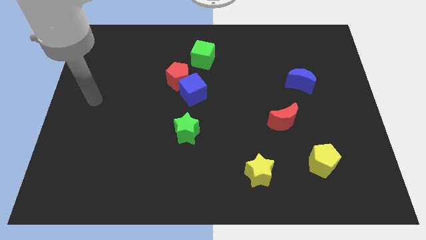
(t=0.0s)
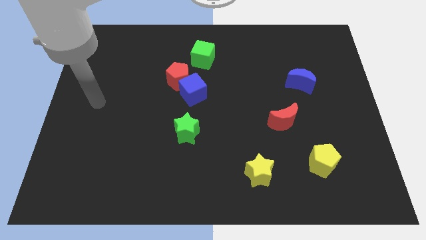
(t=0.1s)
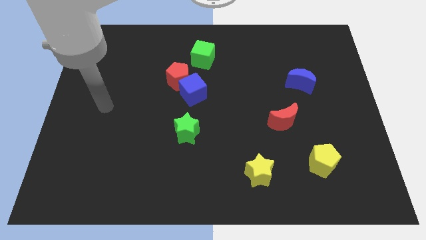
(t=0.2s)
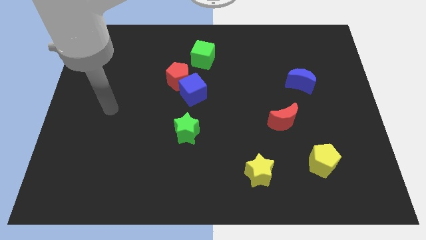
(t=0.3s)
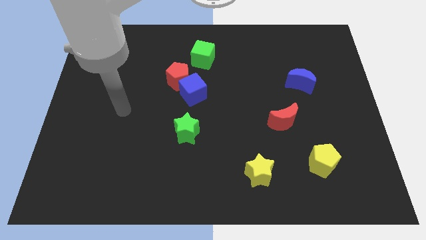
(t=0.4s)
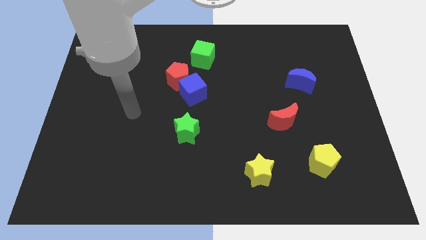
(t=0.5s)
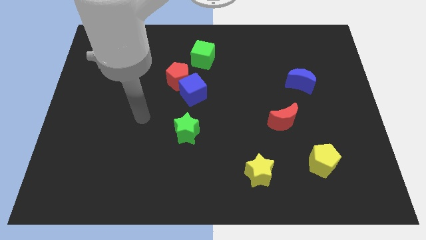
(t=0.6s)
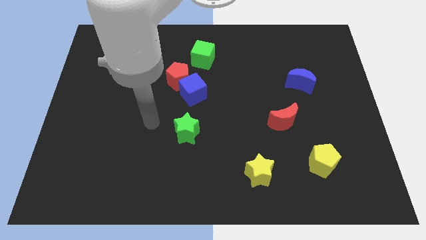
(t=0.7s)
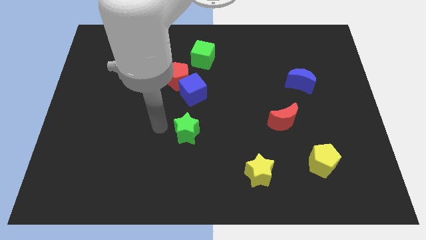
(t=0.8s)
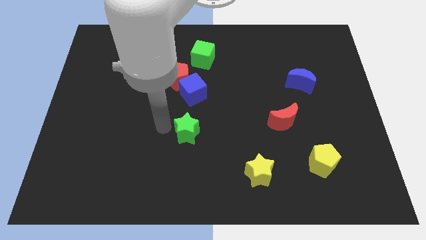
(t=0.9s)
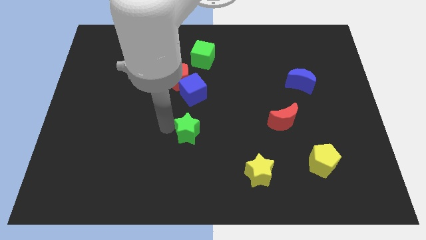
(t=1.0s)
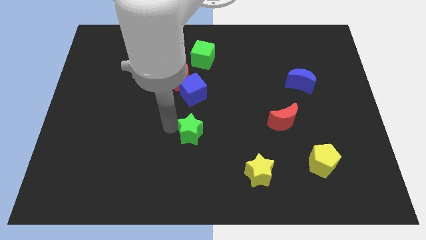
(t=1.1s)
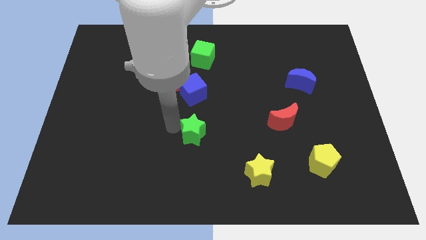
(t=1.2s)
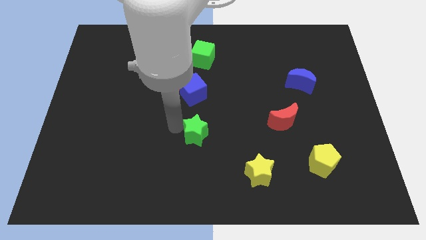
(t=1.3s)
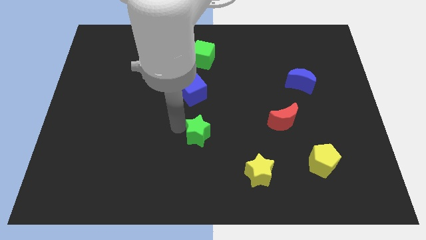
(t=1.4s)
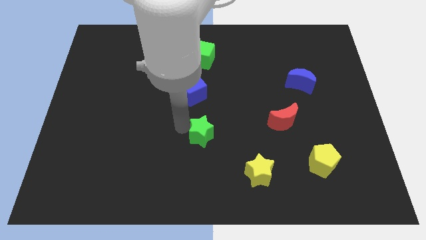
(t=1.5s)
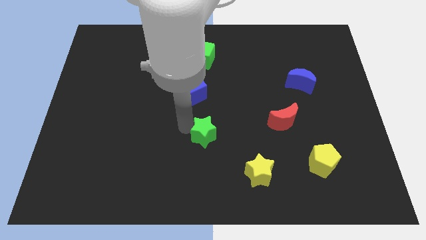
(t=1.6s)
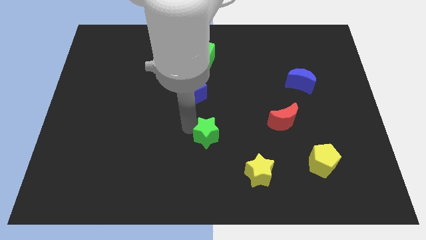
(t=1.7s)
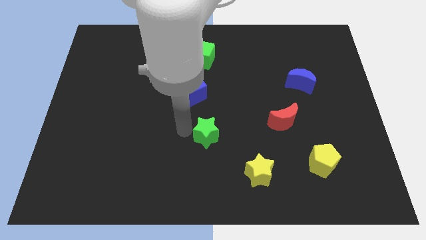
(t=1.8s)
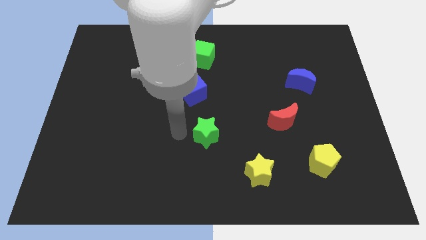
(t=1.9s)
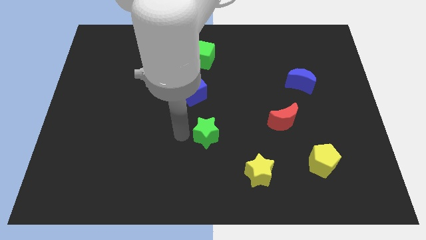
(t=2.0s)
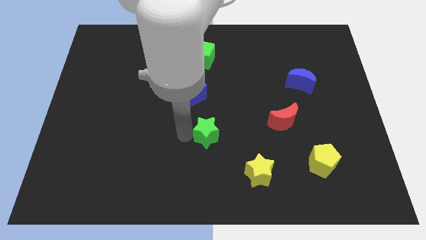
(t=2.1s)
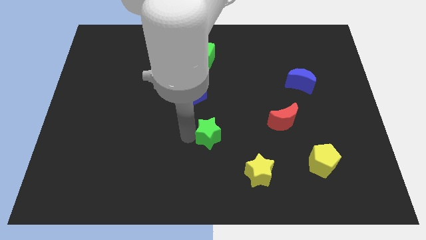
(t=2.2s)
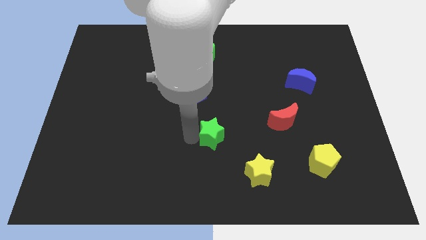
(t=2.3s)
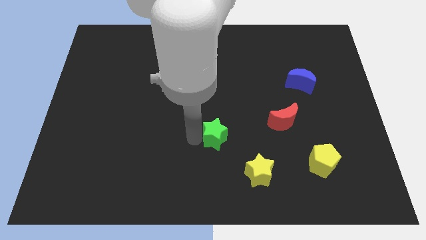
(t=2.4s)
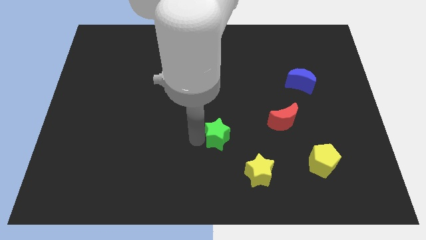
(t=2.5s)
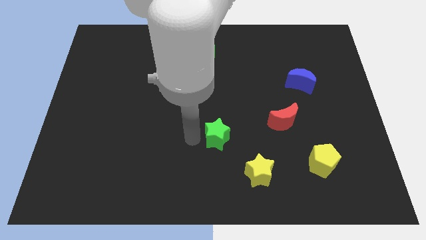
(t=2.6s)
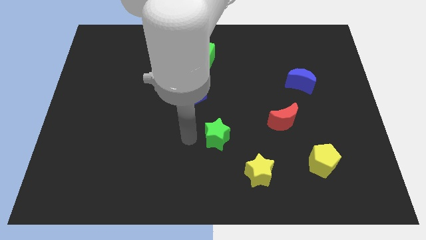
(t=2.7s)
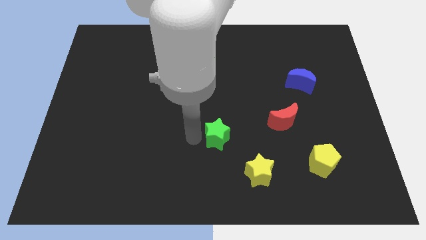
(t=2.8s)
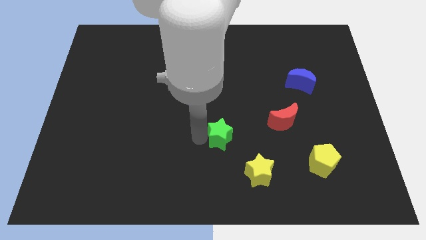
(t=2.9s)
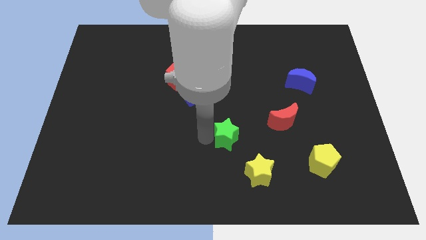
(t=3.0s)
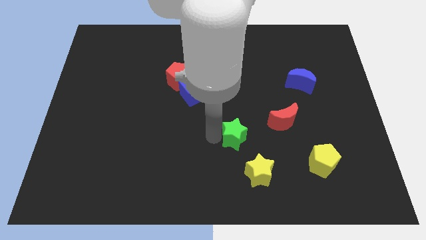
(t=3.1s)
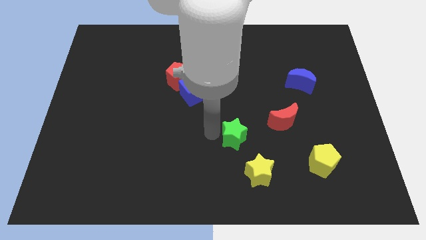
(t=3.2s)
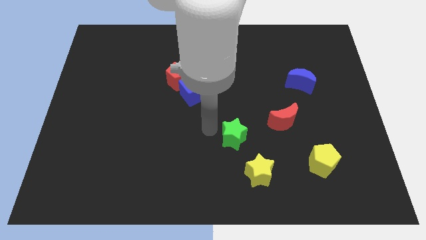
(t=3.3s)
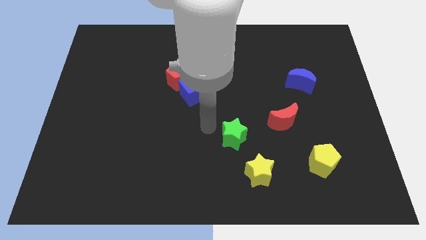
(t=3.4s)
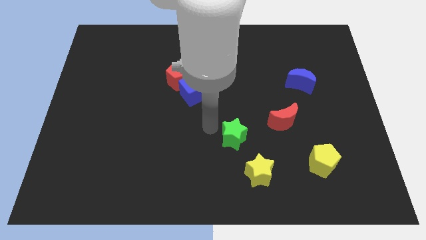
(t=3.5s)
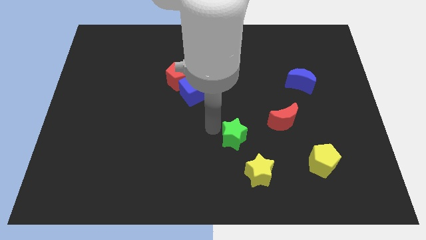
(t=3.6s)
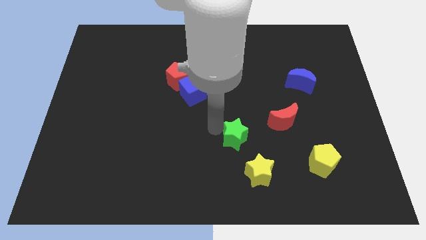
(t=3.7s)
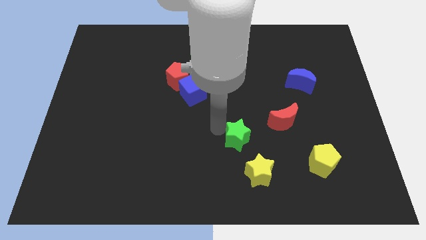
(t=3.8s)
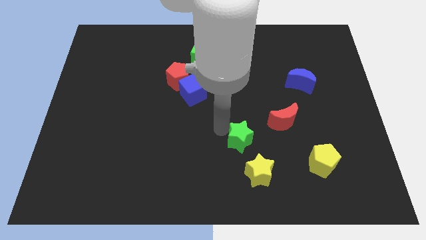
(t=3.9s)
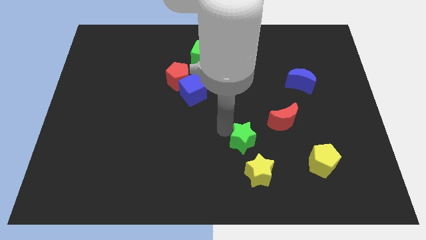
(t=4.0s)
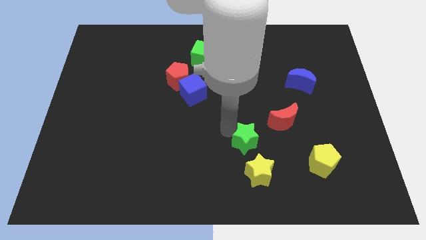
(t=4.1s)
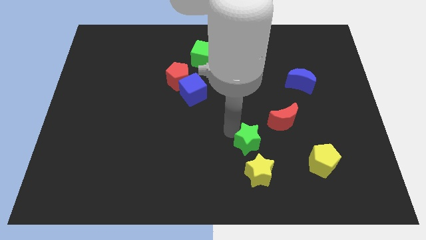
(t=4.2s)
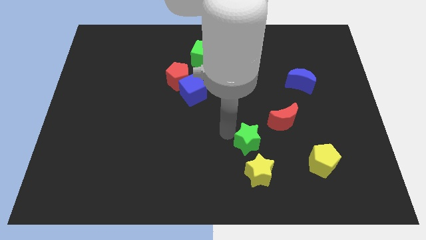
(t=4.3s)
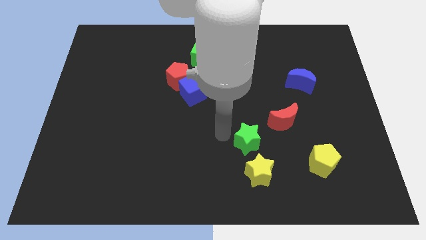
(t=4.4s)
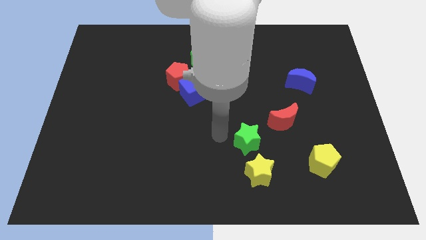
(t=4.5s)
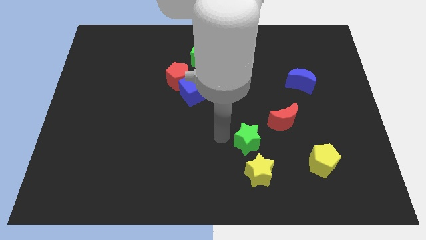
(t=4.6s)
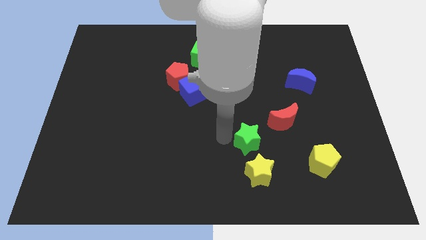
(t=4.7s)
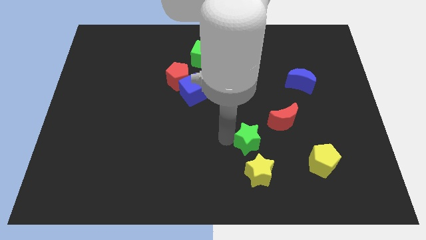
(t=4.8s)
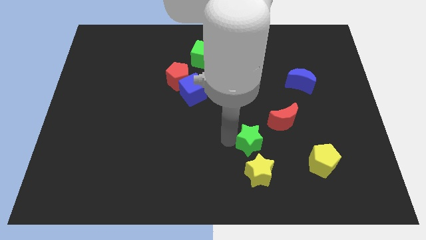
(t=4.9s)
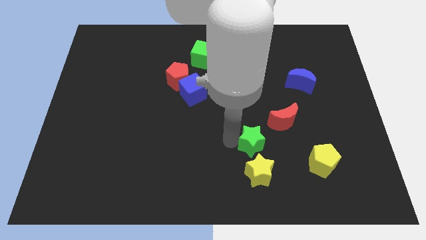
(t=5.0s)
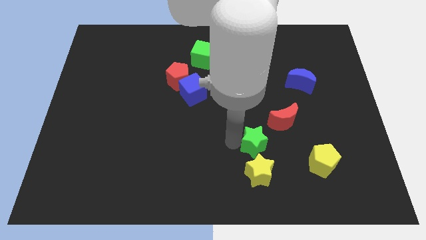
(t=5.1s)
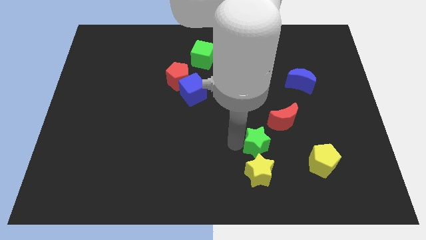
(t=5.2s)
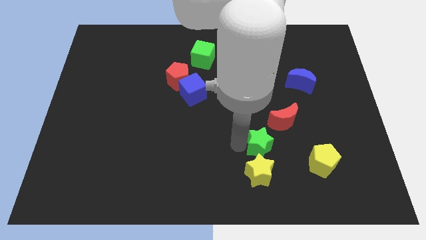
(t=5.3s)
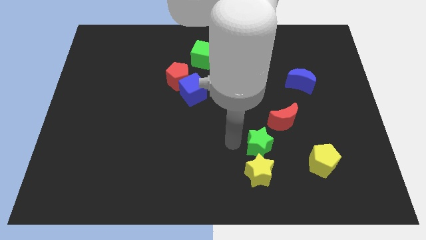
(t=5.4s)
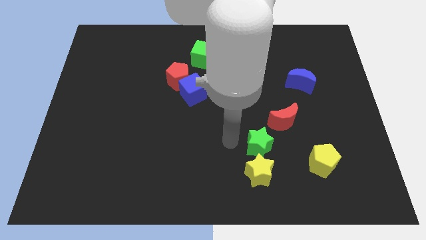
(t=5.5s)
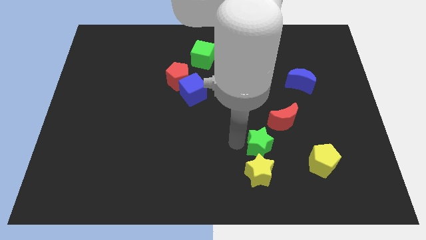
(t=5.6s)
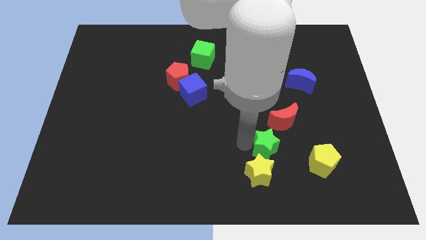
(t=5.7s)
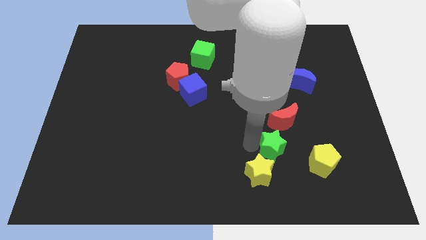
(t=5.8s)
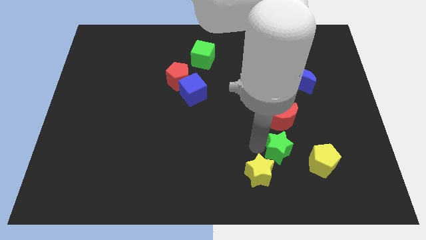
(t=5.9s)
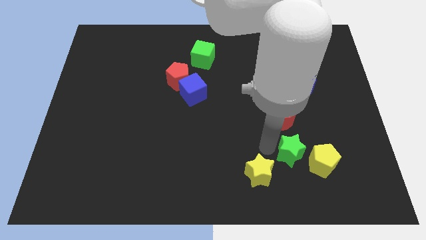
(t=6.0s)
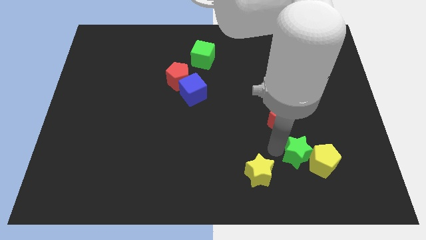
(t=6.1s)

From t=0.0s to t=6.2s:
move the green star next to the yellow pentagon

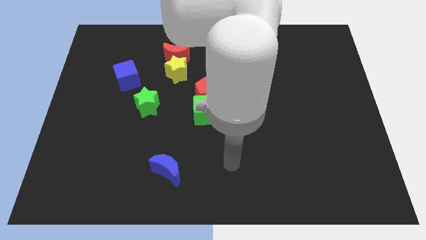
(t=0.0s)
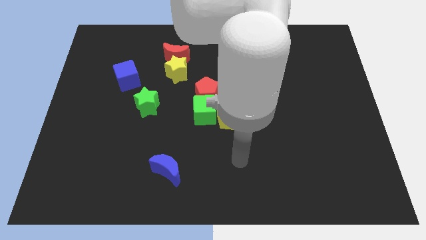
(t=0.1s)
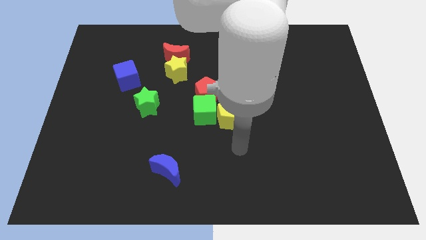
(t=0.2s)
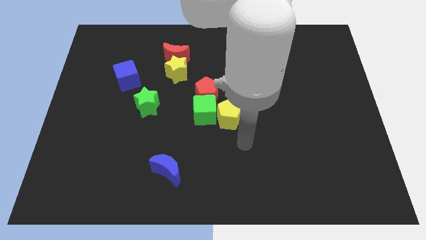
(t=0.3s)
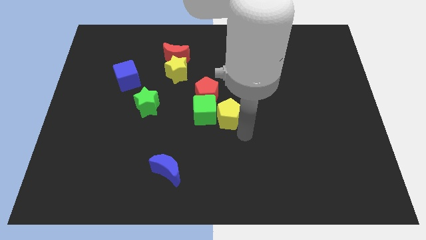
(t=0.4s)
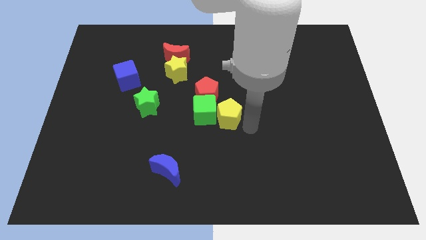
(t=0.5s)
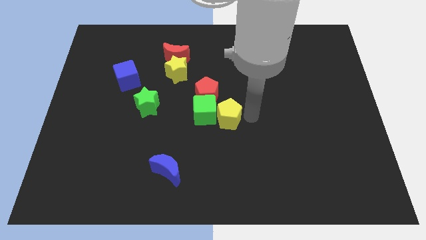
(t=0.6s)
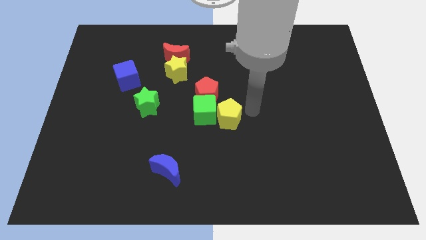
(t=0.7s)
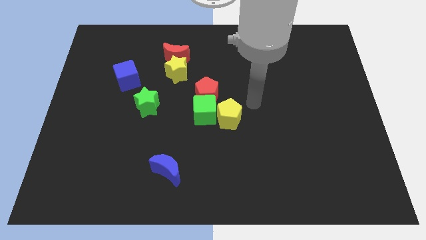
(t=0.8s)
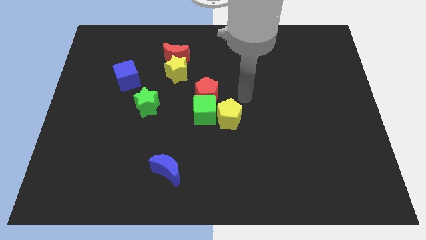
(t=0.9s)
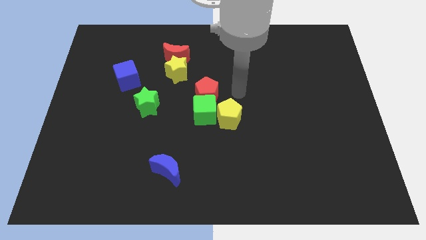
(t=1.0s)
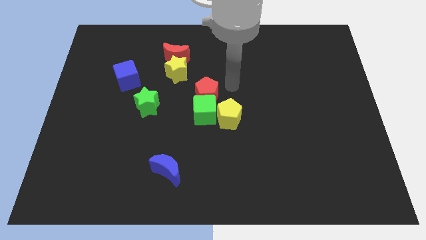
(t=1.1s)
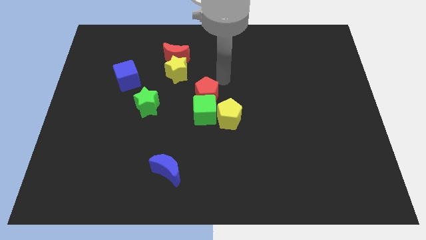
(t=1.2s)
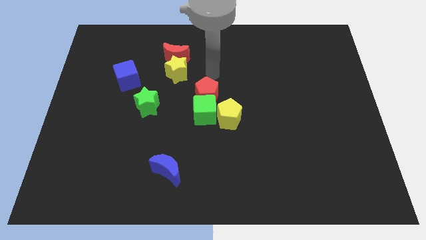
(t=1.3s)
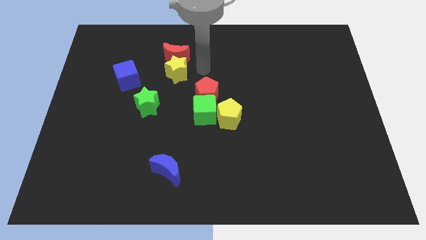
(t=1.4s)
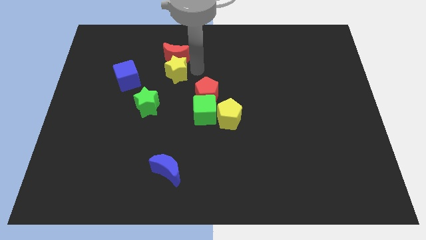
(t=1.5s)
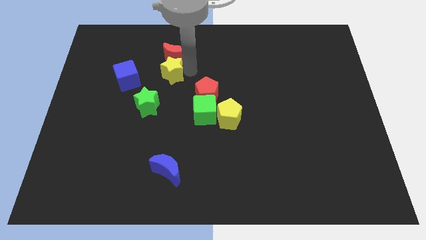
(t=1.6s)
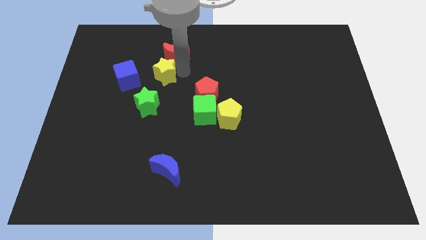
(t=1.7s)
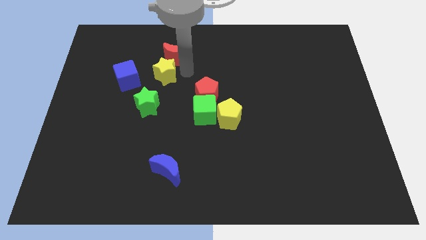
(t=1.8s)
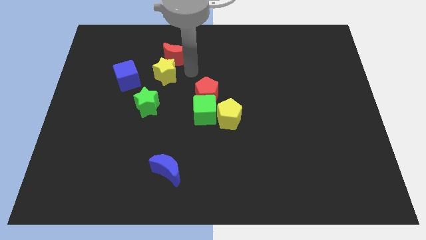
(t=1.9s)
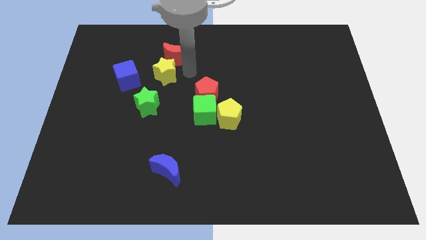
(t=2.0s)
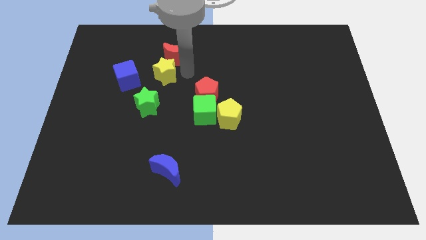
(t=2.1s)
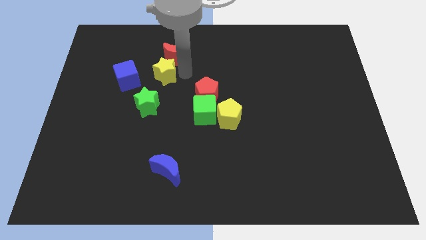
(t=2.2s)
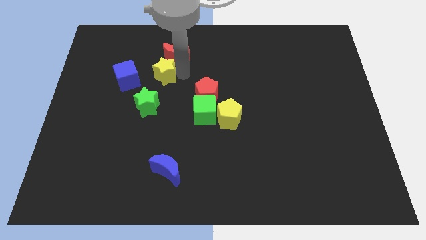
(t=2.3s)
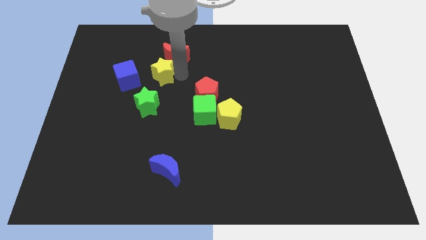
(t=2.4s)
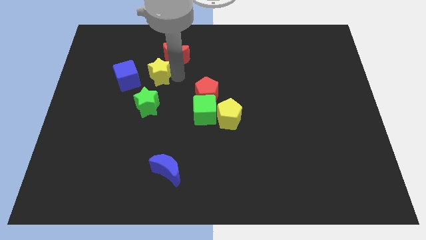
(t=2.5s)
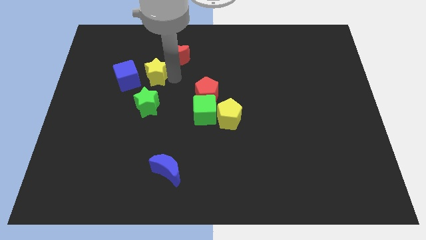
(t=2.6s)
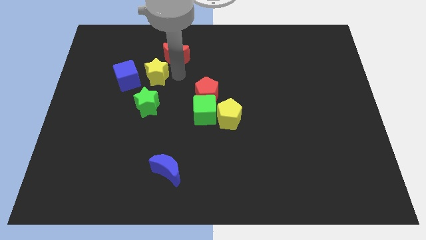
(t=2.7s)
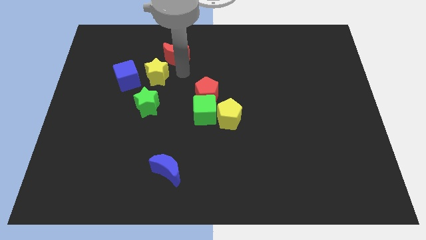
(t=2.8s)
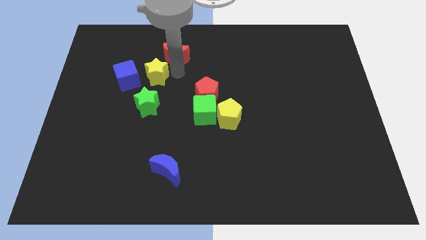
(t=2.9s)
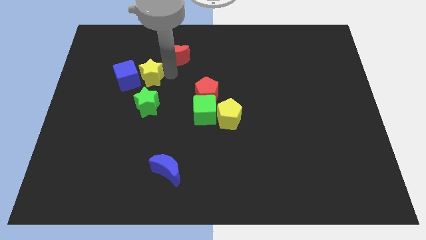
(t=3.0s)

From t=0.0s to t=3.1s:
move the yellow star towards the blue cube
